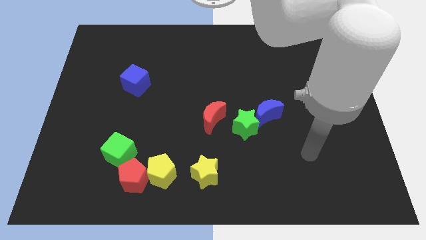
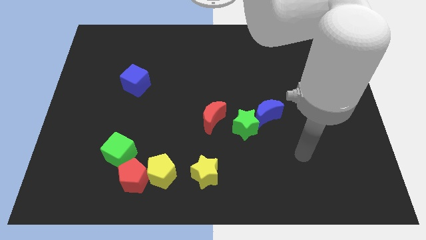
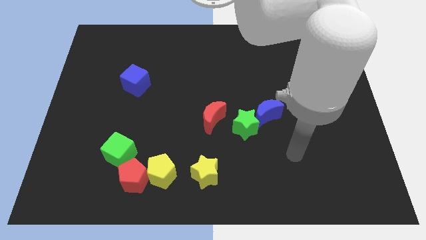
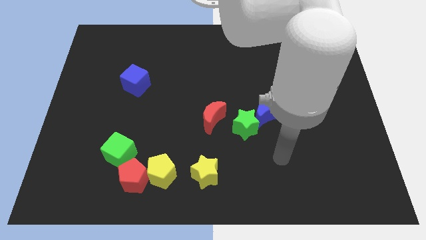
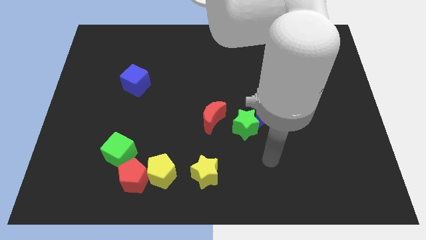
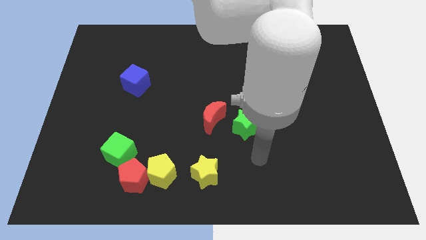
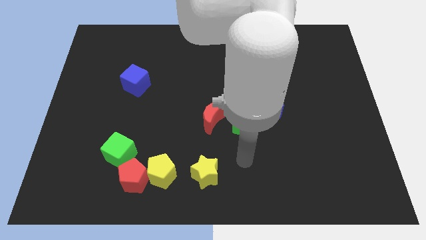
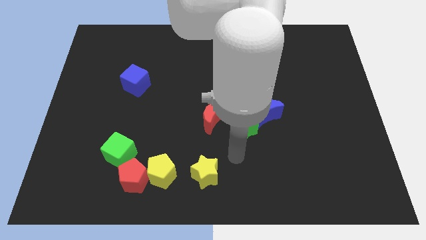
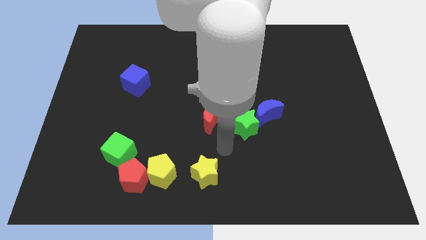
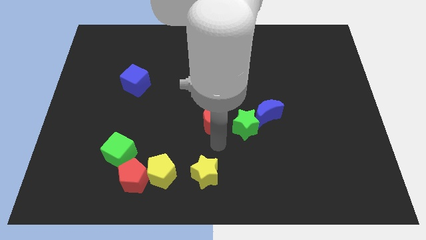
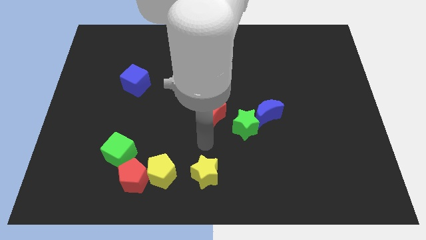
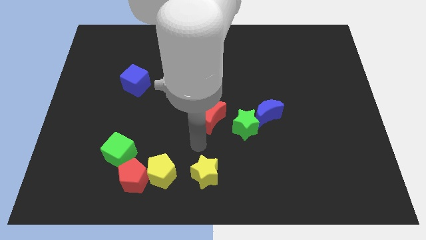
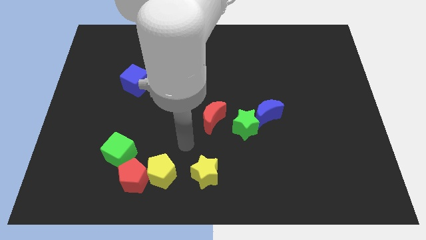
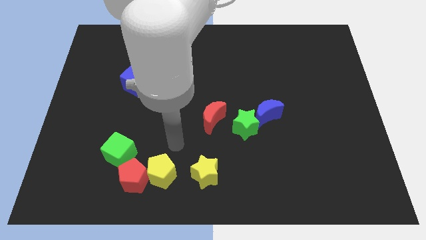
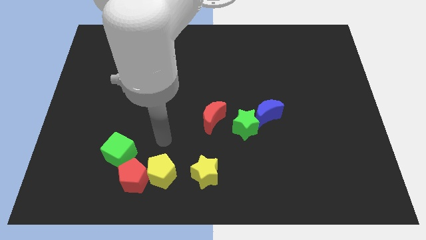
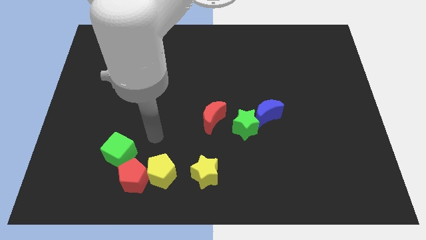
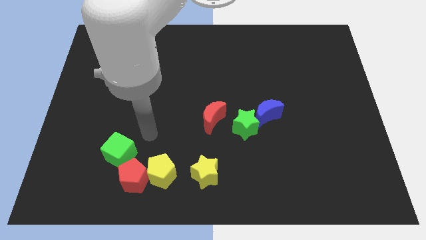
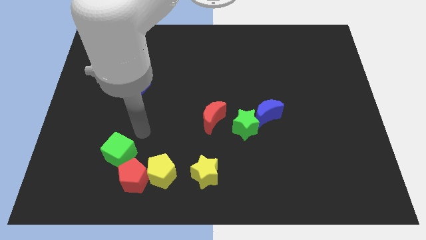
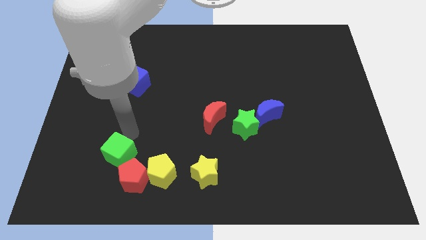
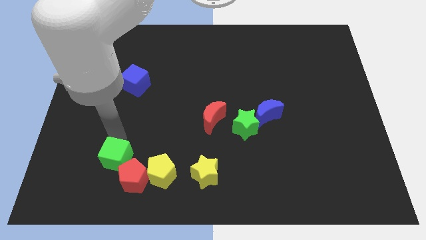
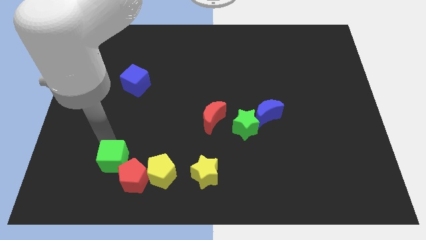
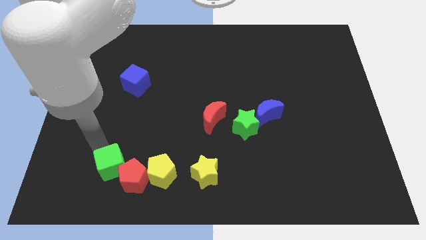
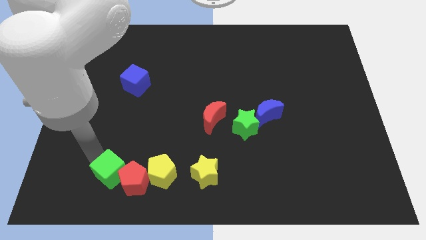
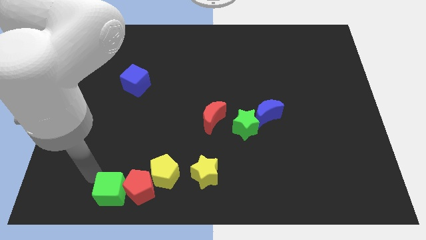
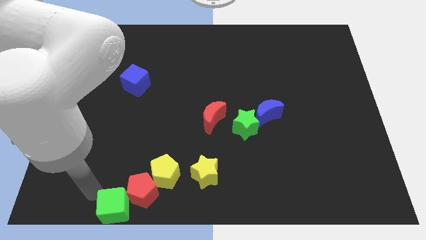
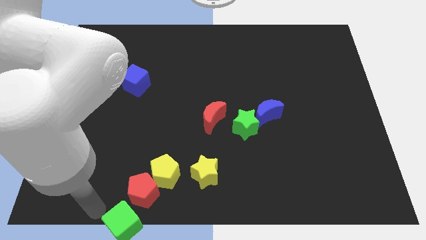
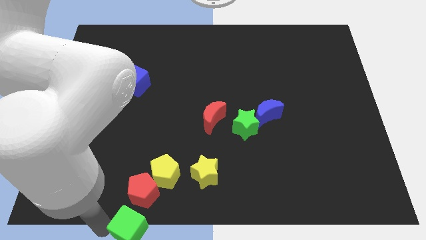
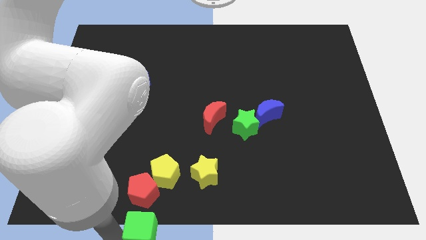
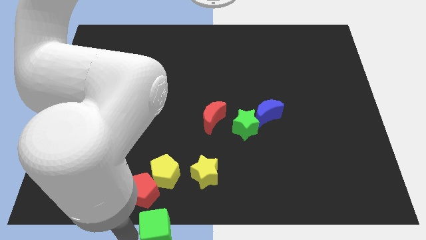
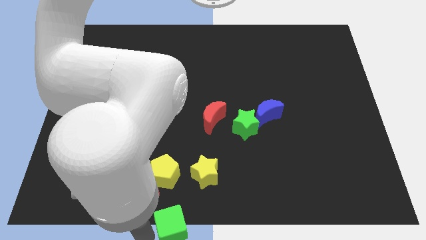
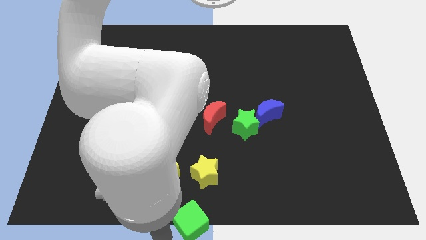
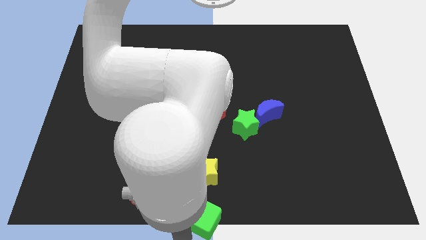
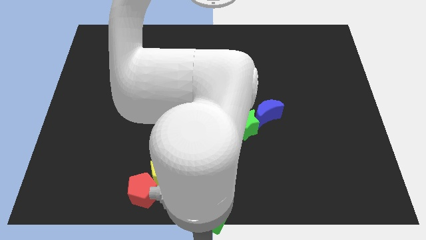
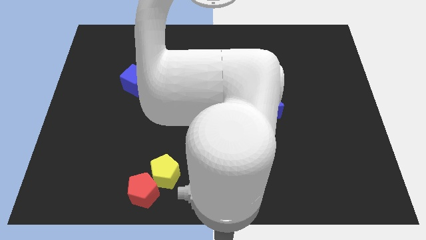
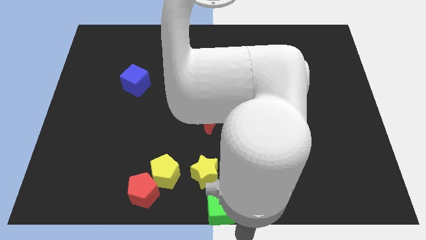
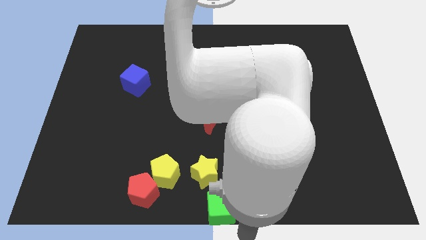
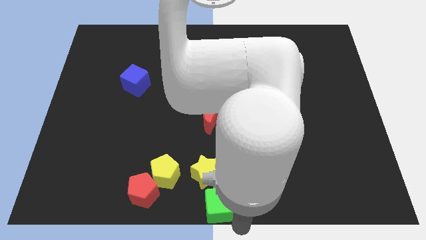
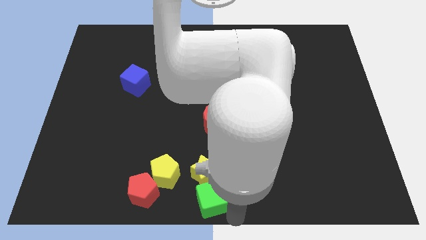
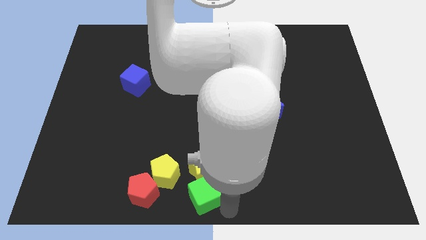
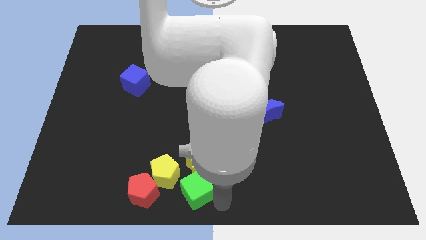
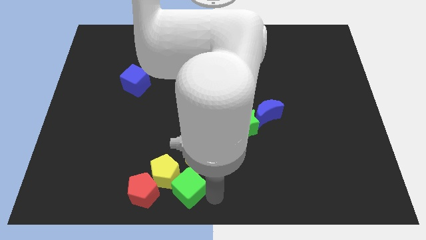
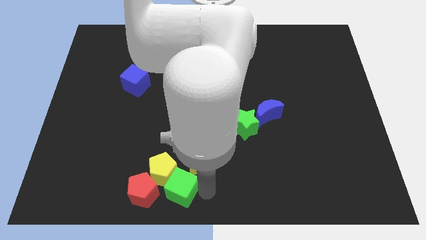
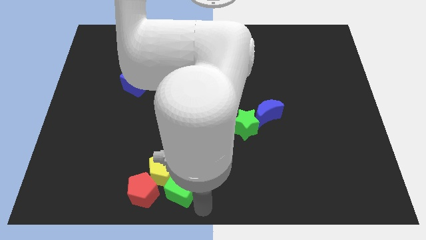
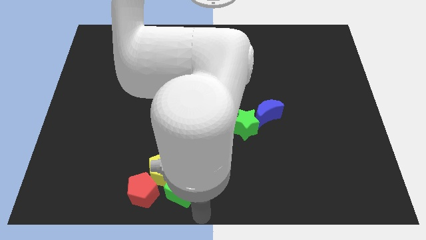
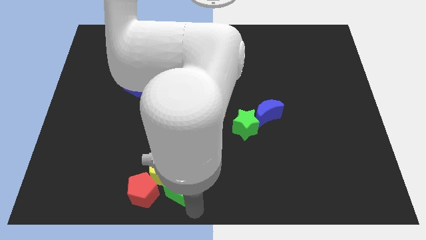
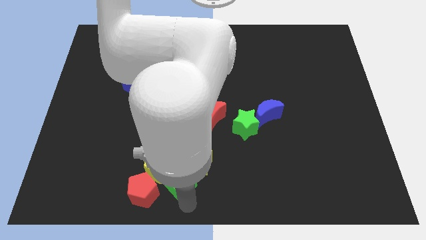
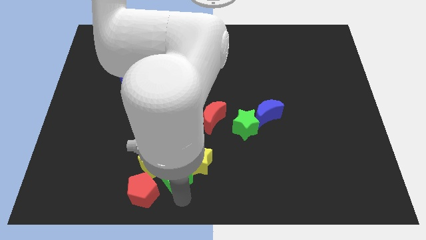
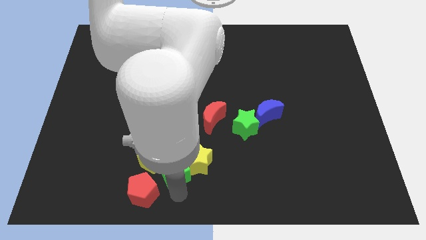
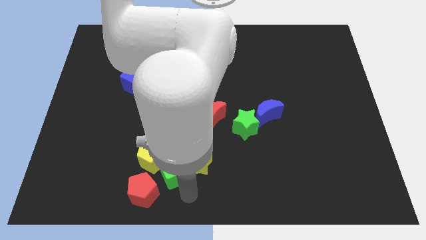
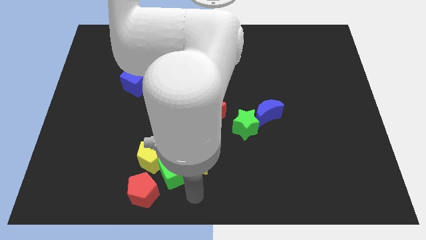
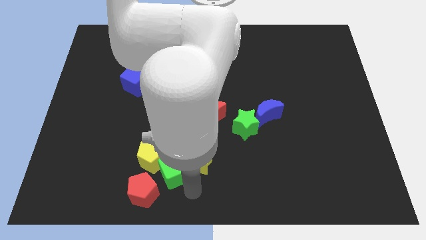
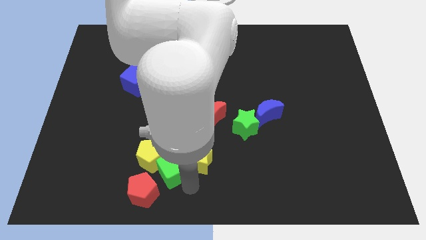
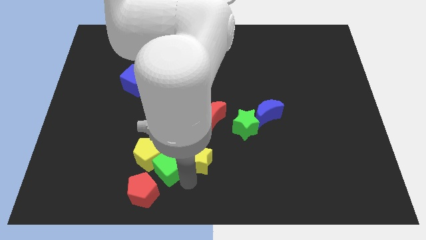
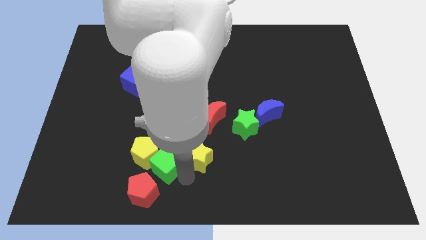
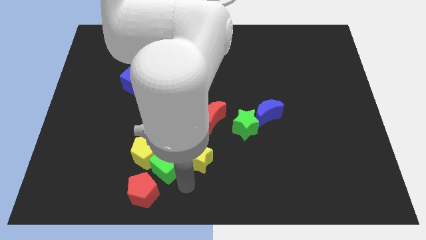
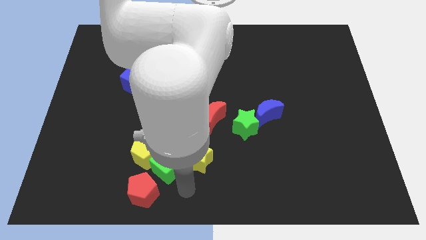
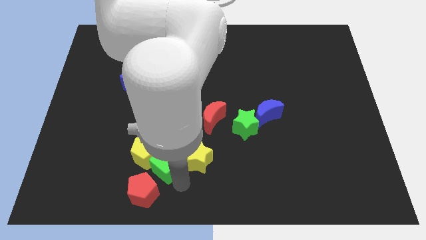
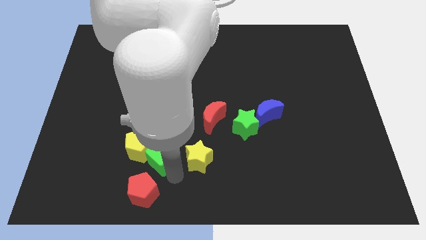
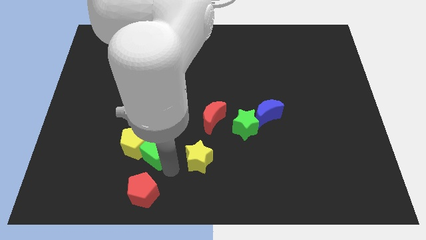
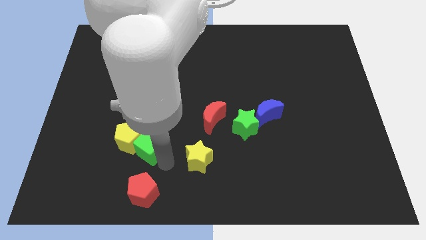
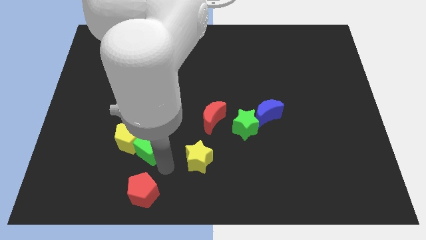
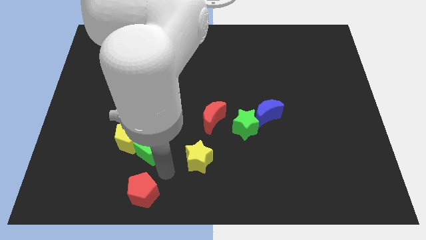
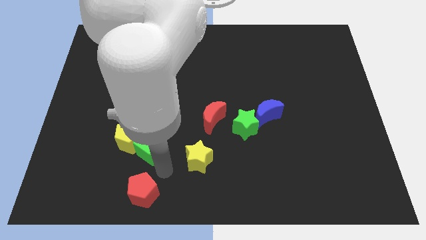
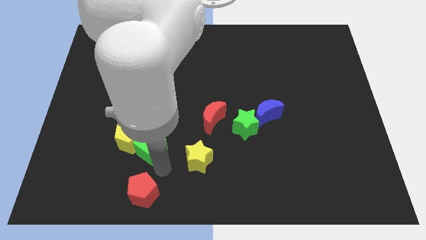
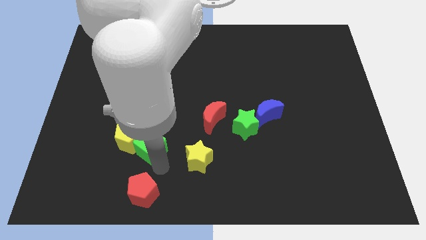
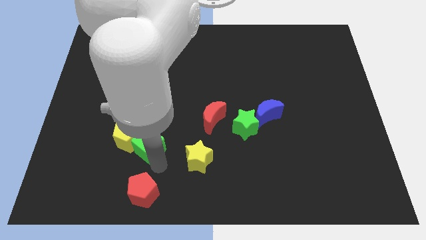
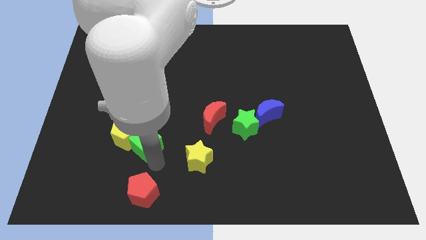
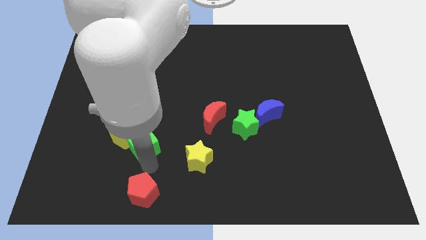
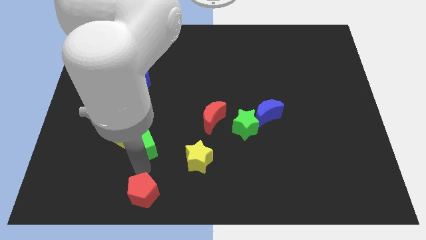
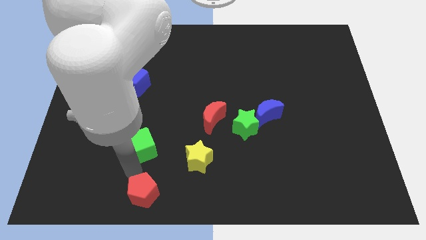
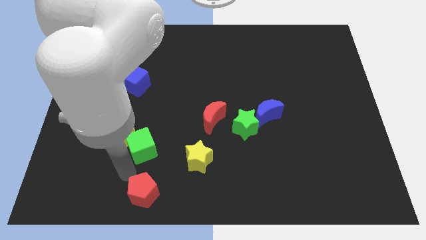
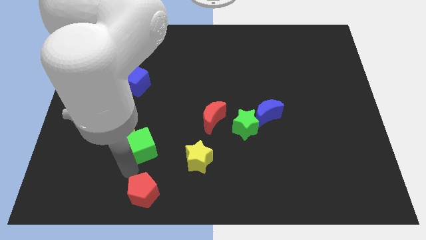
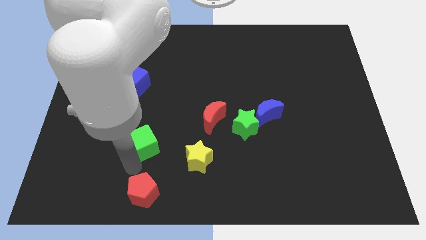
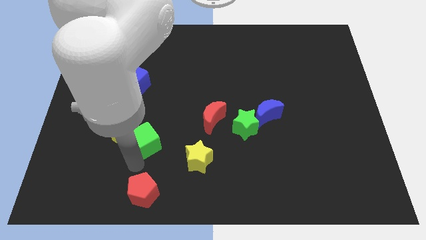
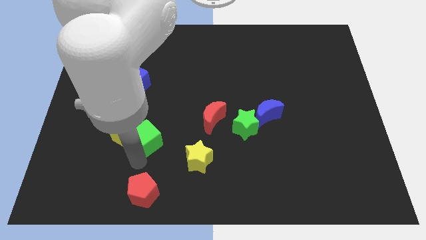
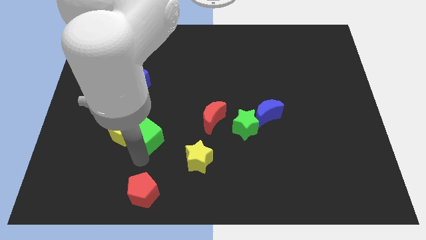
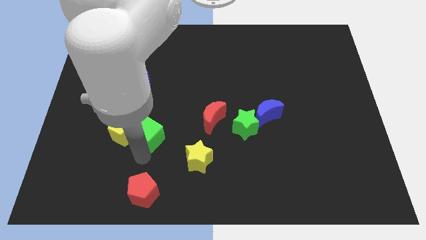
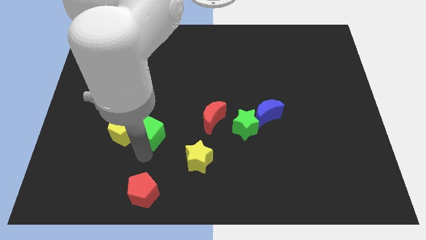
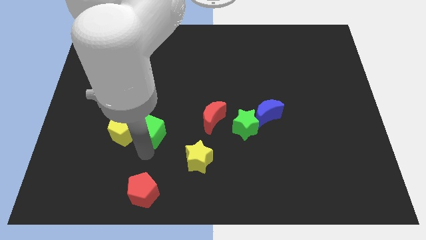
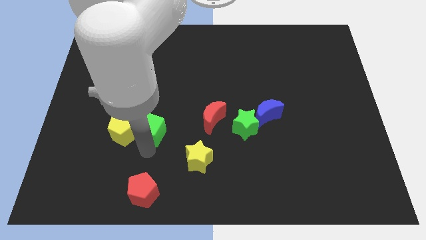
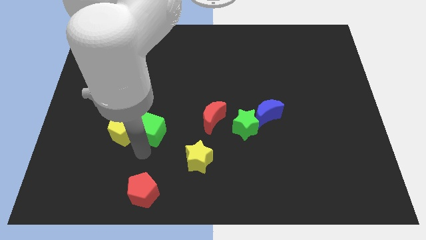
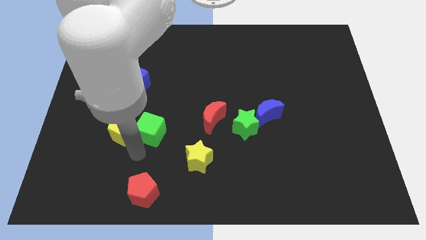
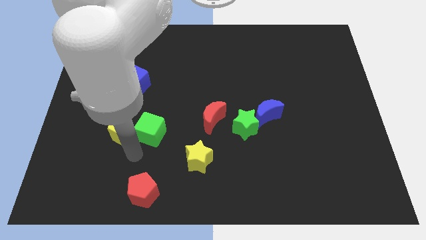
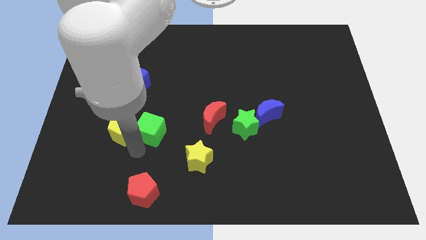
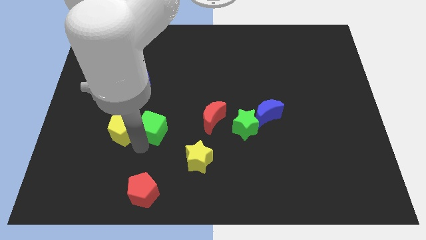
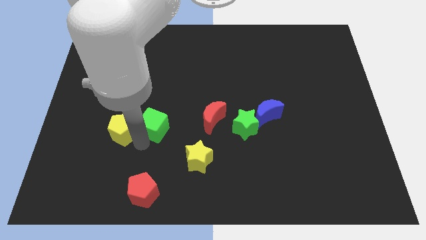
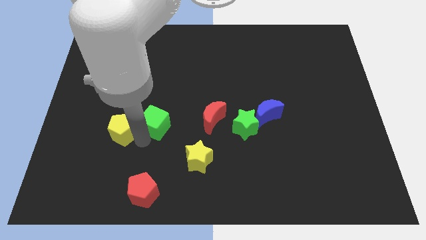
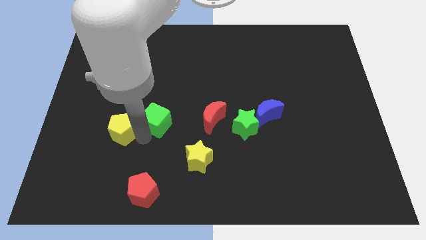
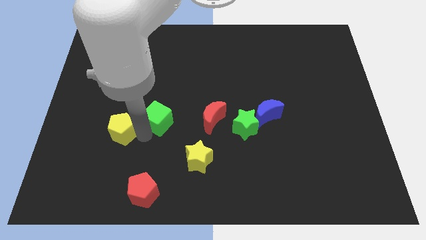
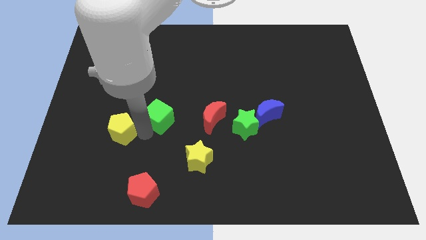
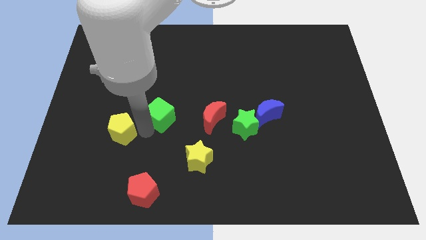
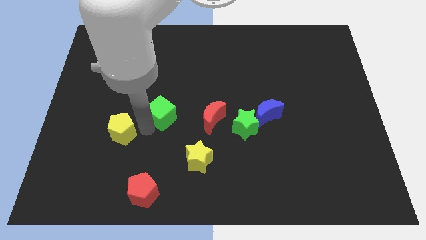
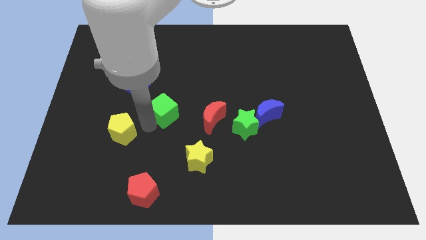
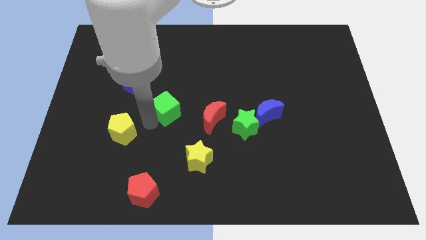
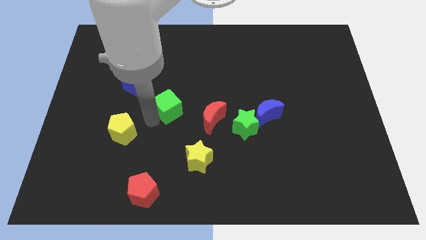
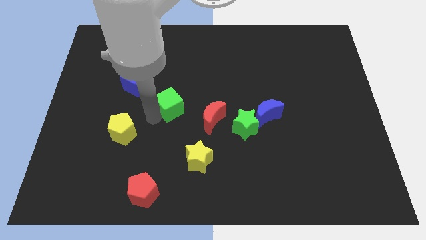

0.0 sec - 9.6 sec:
slide the green cube diagonally up and to the left of the red moon
